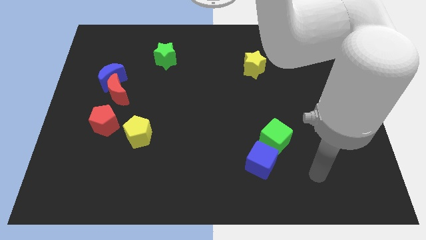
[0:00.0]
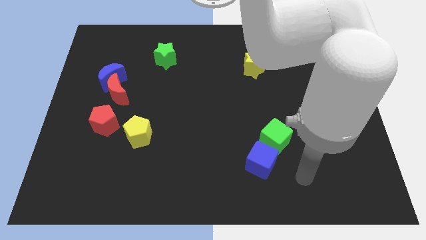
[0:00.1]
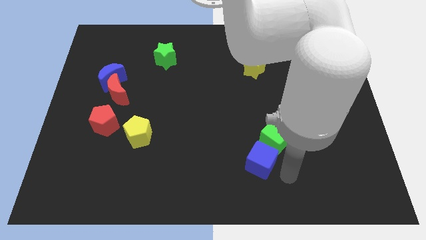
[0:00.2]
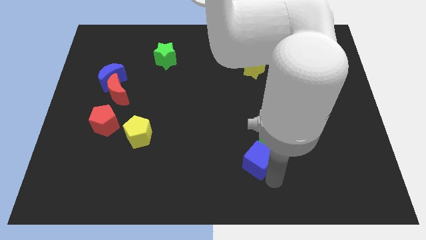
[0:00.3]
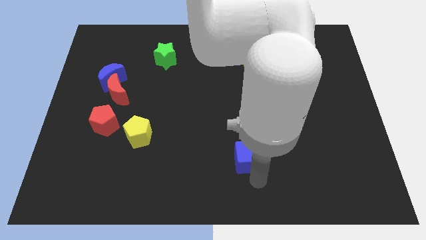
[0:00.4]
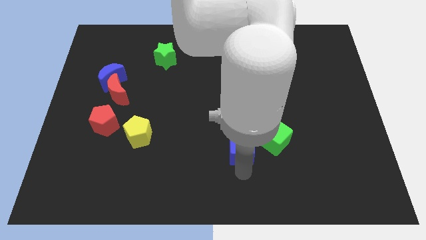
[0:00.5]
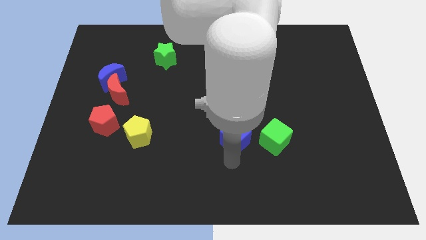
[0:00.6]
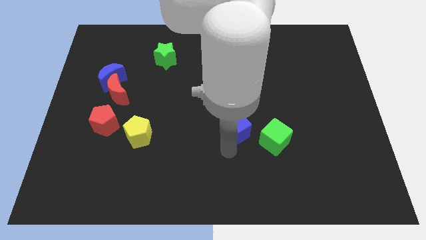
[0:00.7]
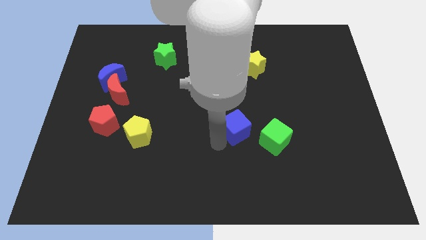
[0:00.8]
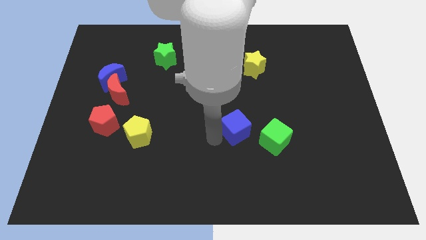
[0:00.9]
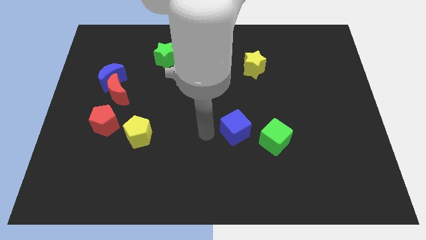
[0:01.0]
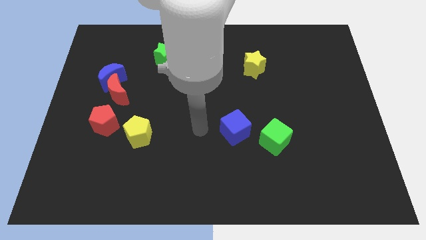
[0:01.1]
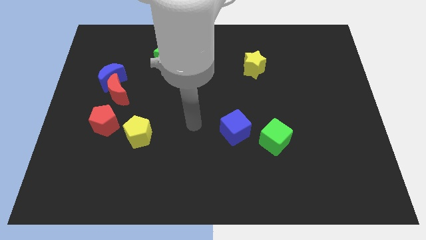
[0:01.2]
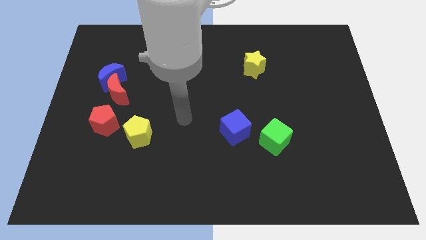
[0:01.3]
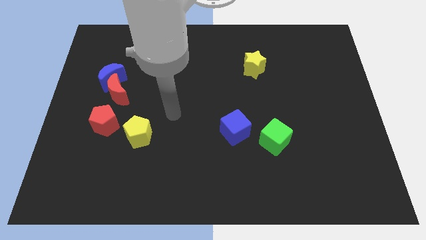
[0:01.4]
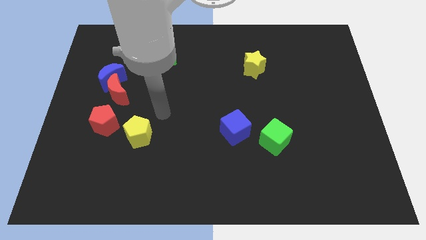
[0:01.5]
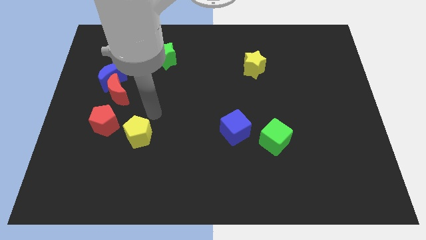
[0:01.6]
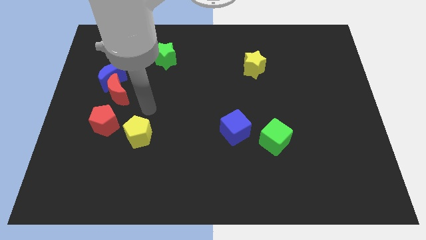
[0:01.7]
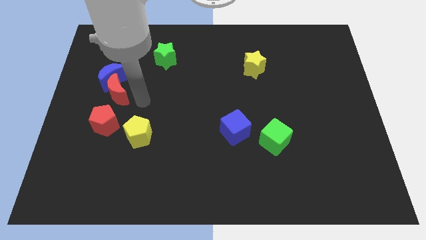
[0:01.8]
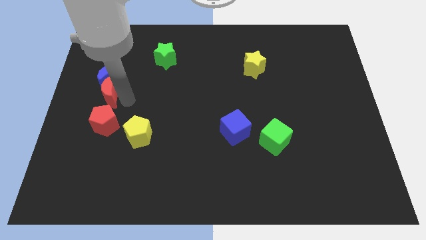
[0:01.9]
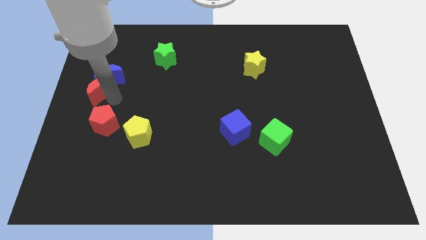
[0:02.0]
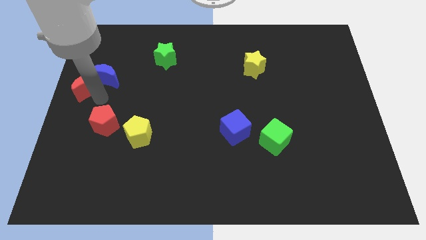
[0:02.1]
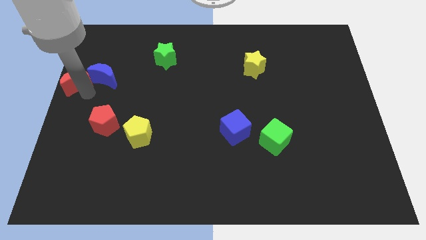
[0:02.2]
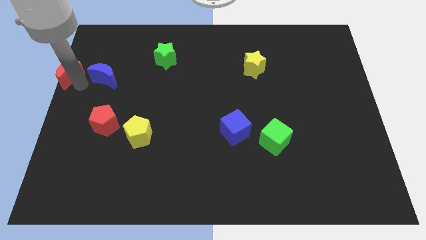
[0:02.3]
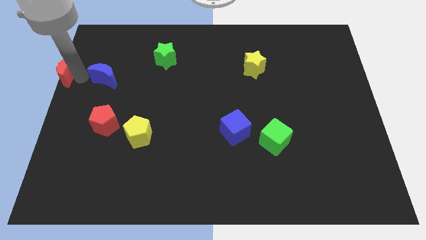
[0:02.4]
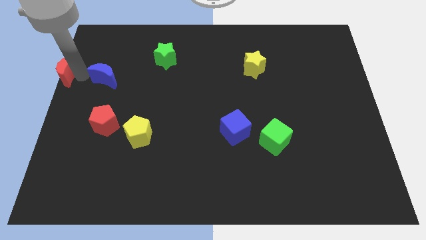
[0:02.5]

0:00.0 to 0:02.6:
separate the blue moon from the red moon

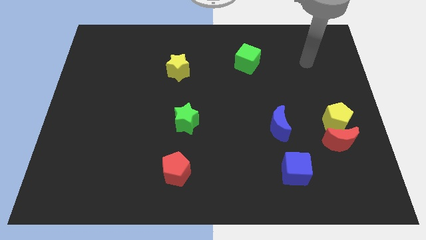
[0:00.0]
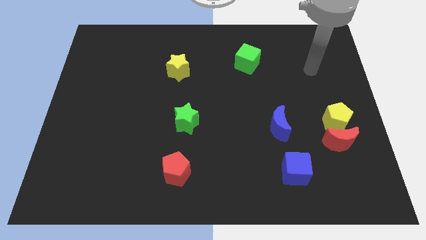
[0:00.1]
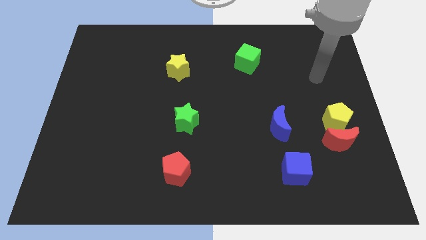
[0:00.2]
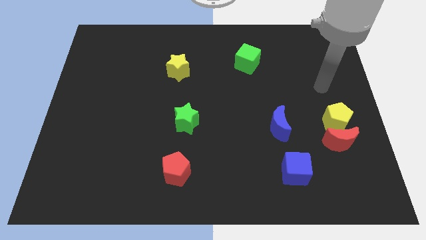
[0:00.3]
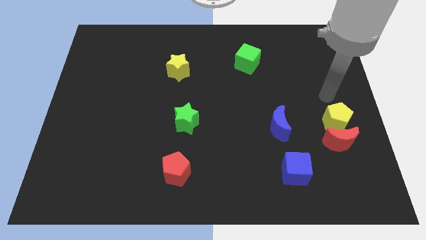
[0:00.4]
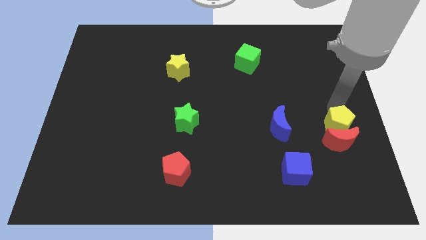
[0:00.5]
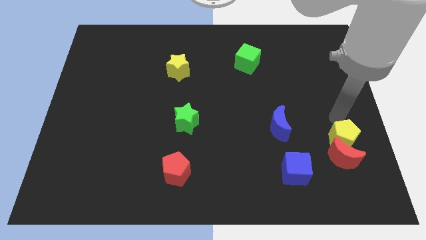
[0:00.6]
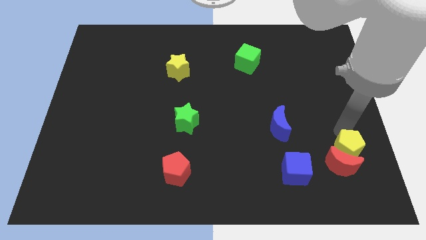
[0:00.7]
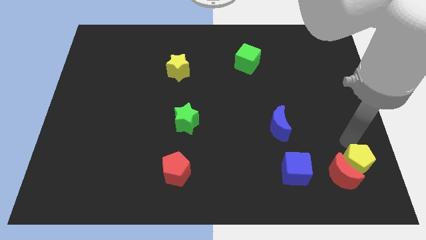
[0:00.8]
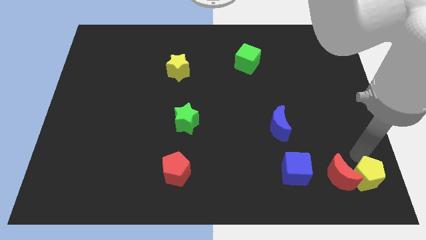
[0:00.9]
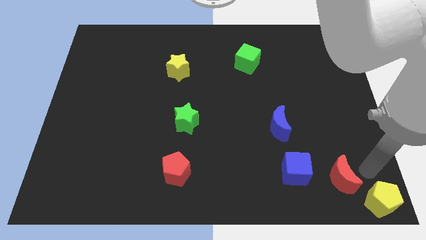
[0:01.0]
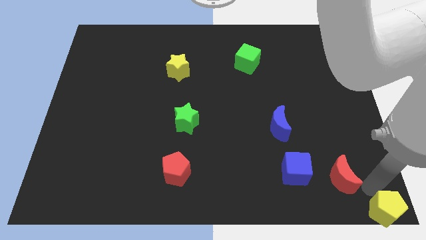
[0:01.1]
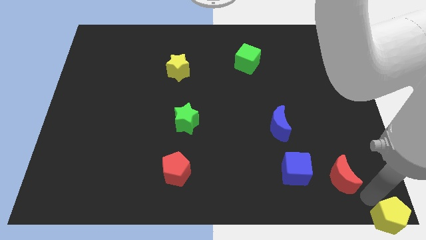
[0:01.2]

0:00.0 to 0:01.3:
separate the red moon from the yellow pentagon

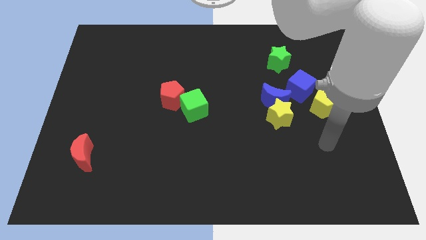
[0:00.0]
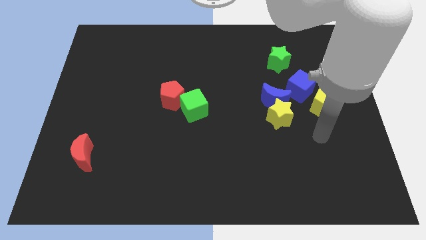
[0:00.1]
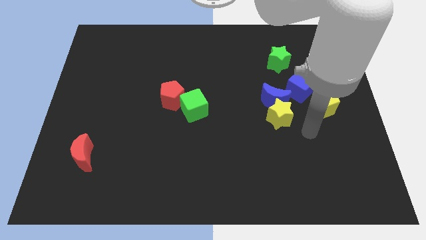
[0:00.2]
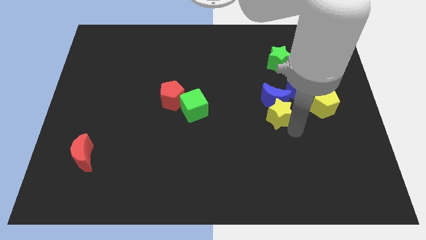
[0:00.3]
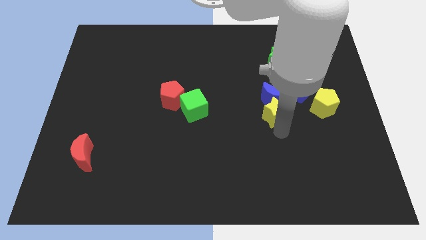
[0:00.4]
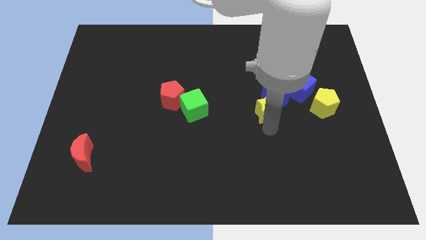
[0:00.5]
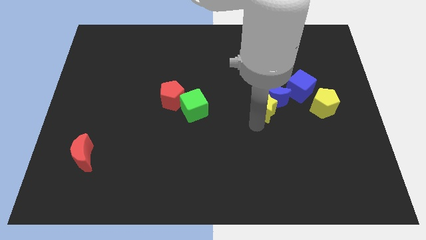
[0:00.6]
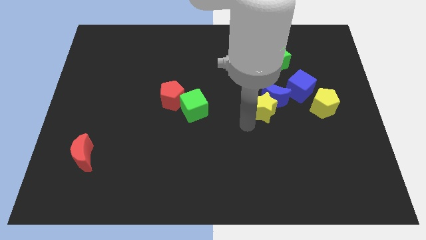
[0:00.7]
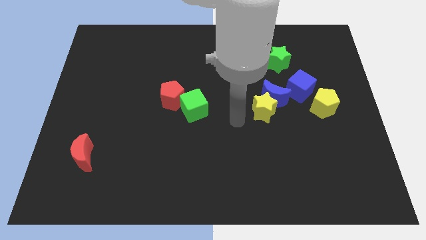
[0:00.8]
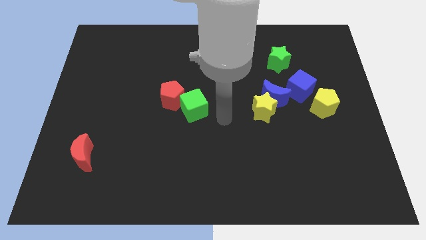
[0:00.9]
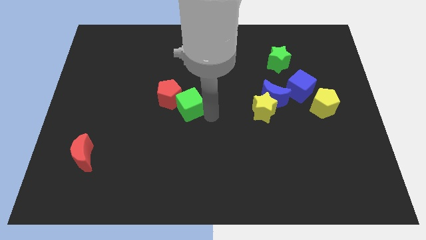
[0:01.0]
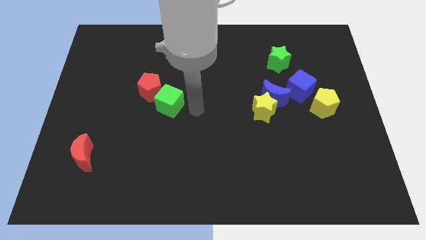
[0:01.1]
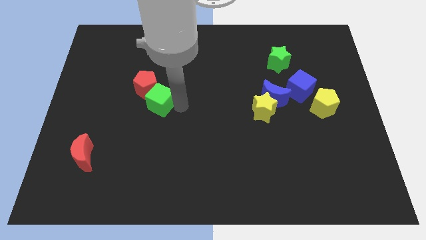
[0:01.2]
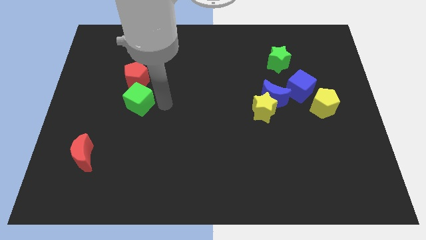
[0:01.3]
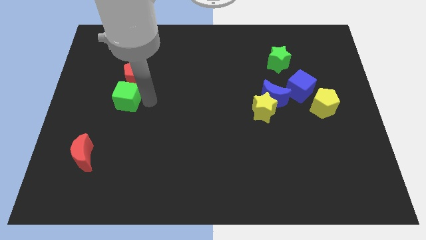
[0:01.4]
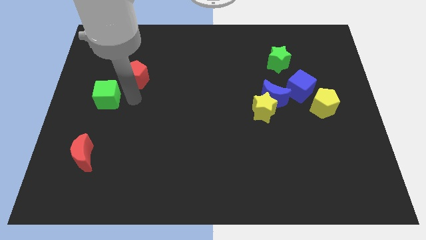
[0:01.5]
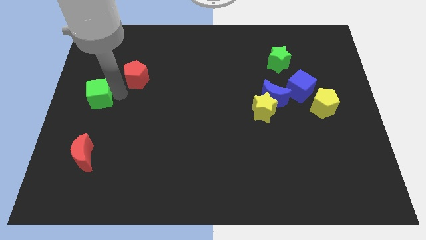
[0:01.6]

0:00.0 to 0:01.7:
pull the red pentagon apart from the green cube

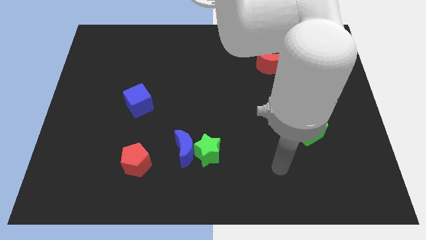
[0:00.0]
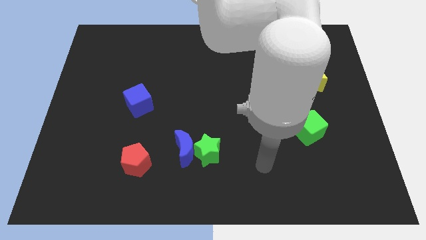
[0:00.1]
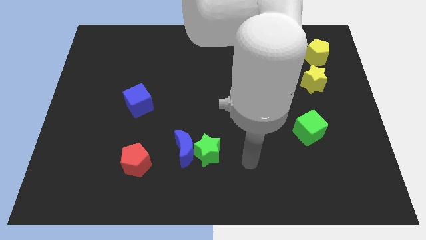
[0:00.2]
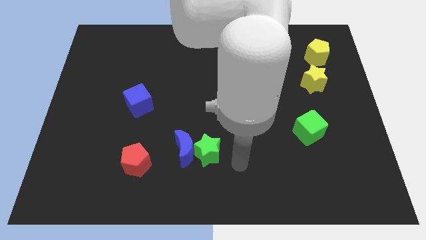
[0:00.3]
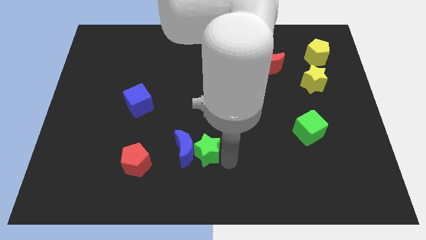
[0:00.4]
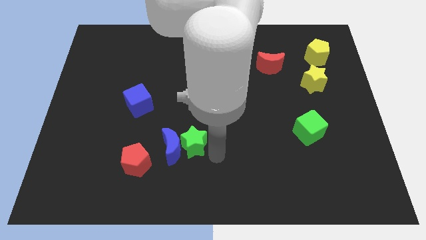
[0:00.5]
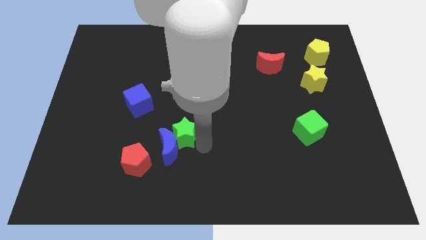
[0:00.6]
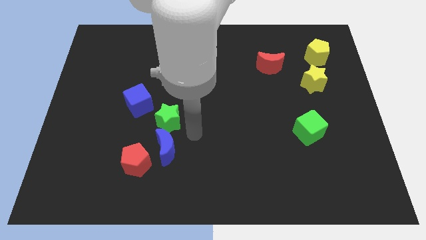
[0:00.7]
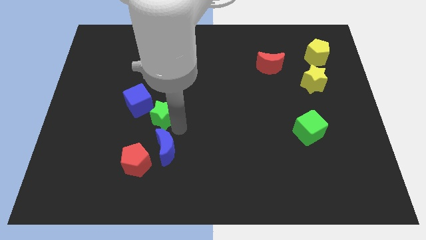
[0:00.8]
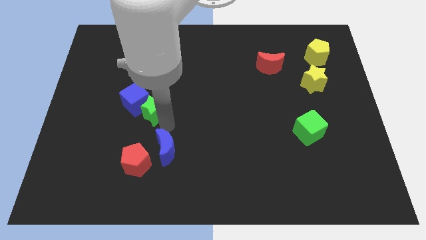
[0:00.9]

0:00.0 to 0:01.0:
pull the blue moon apart from the green star

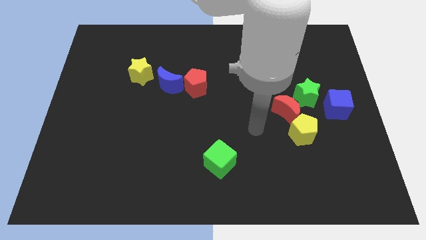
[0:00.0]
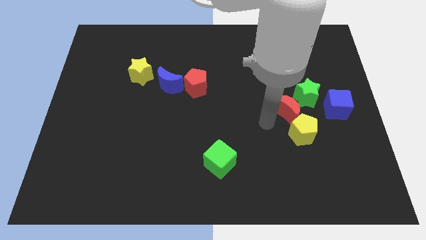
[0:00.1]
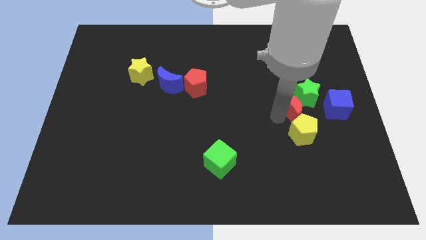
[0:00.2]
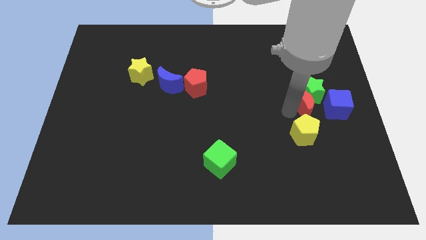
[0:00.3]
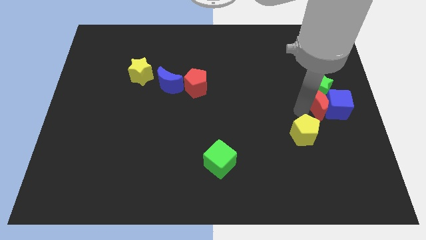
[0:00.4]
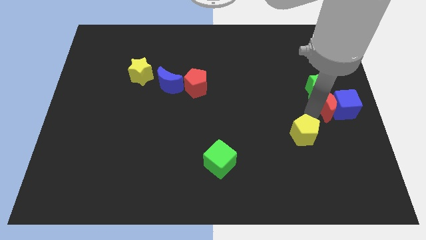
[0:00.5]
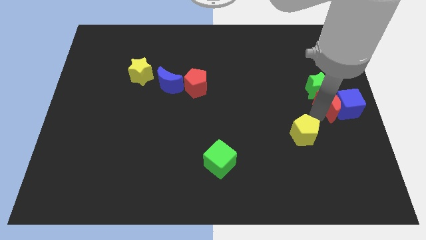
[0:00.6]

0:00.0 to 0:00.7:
move the yellow pentagon away from the red moon

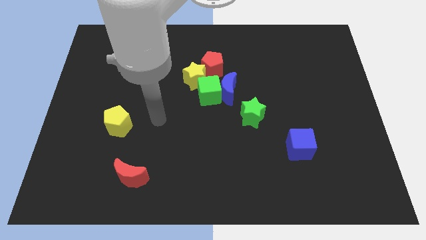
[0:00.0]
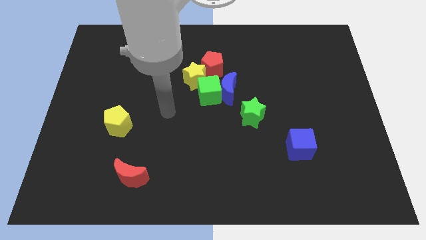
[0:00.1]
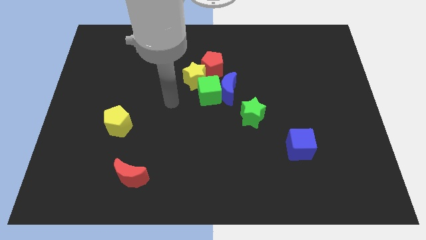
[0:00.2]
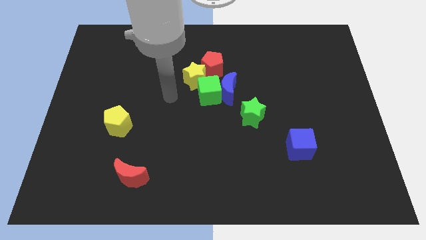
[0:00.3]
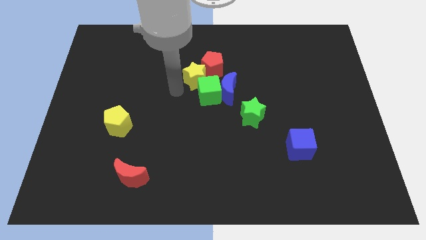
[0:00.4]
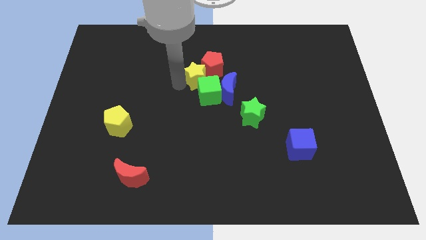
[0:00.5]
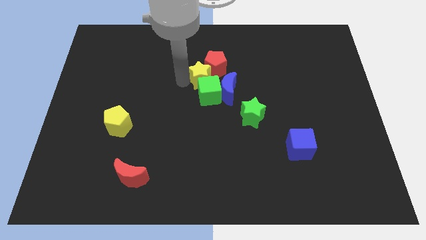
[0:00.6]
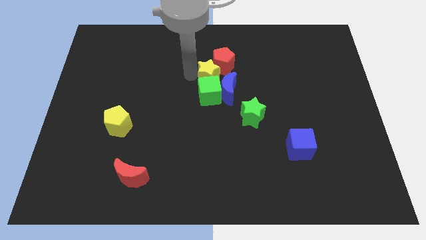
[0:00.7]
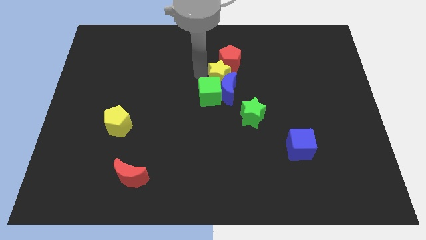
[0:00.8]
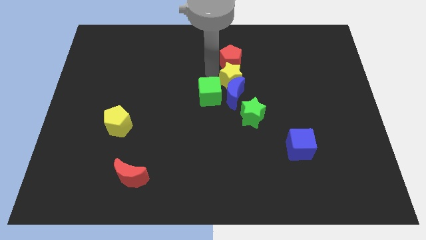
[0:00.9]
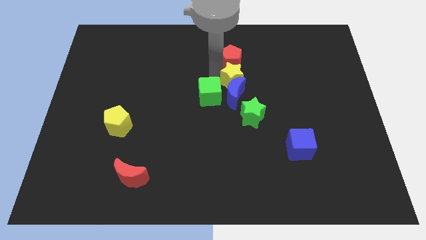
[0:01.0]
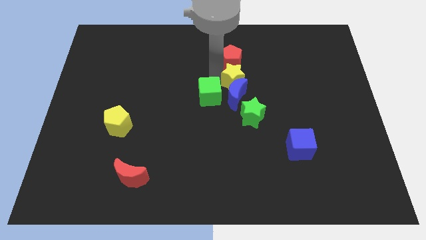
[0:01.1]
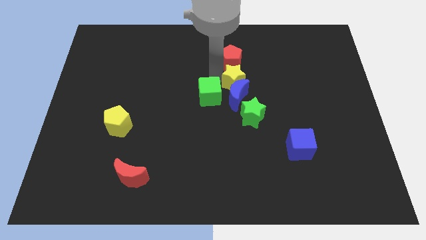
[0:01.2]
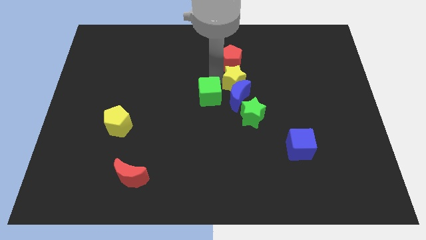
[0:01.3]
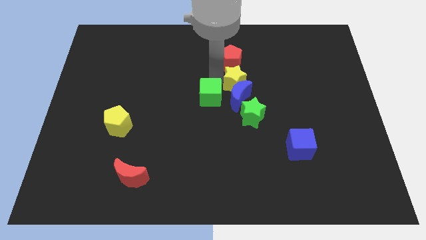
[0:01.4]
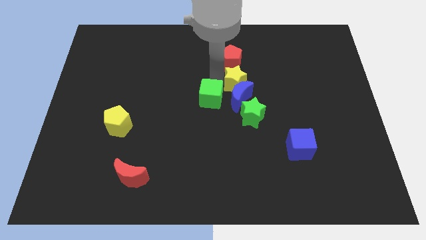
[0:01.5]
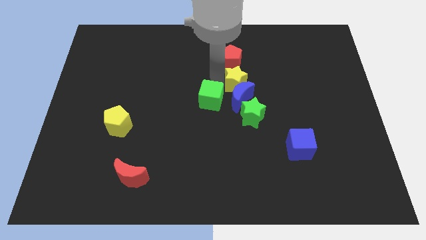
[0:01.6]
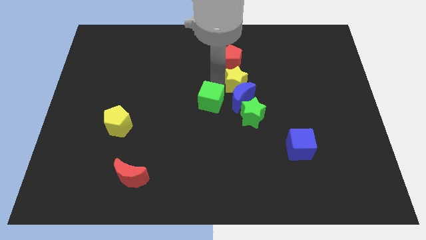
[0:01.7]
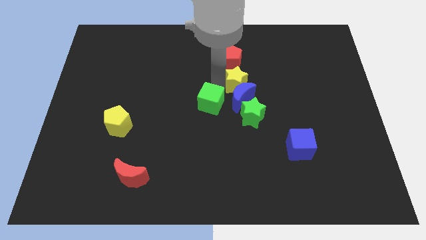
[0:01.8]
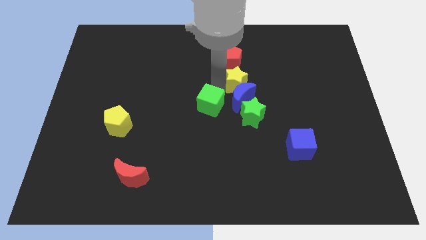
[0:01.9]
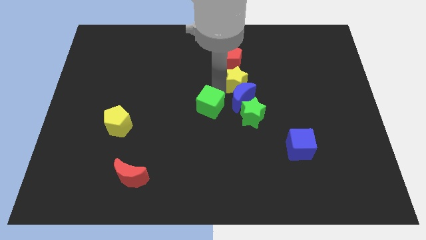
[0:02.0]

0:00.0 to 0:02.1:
separate the green cube from the blue moon, yellow star, and red pentagon

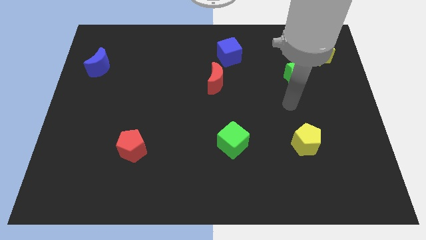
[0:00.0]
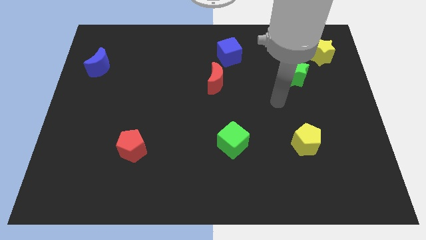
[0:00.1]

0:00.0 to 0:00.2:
pull the red moon apart from the blue cube
